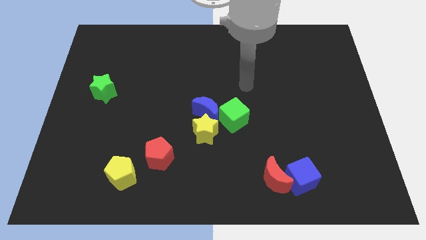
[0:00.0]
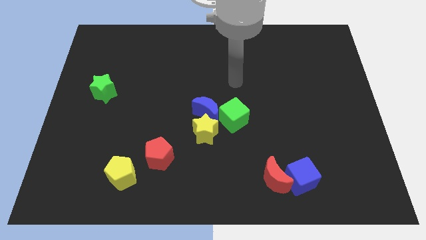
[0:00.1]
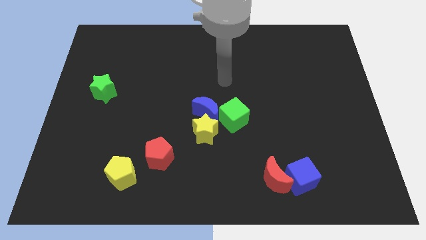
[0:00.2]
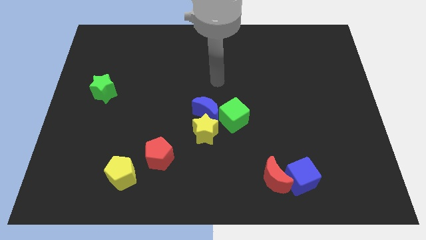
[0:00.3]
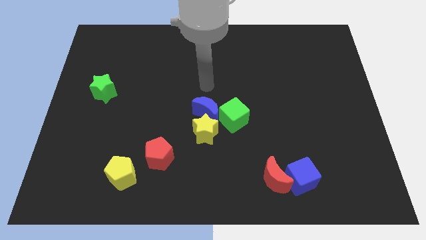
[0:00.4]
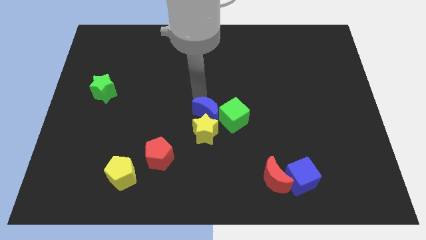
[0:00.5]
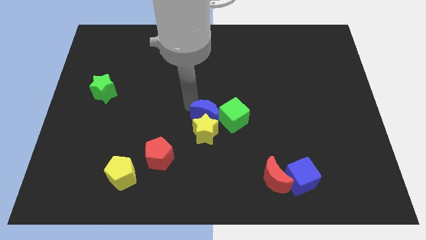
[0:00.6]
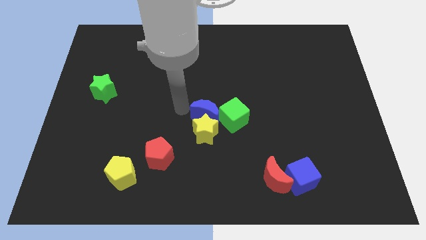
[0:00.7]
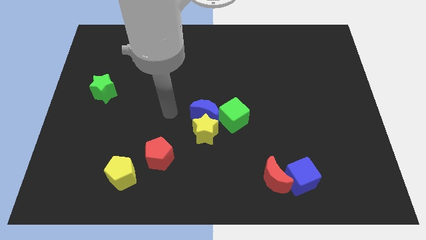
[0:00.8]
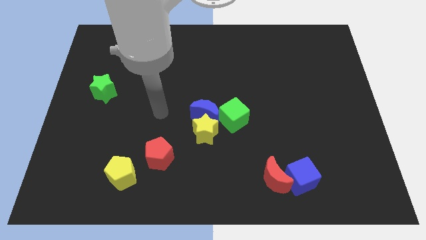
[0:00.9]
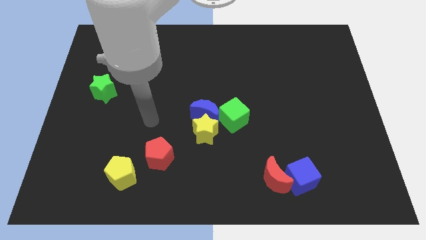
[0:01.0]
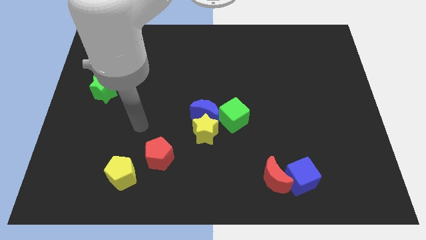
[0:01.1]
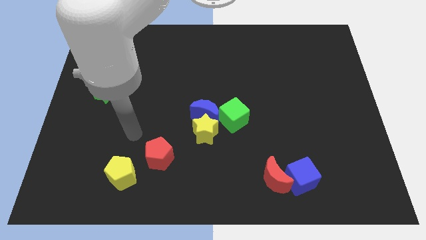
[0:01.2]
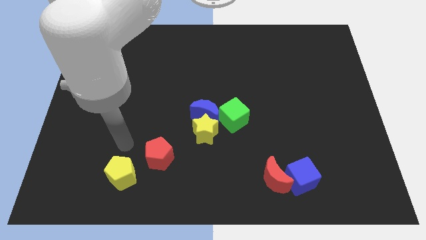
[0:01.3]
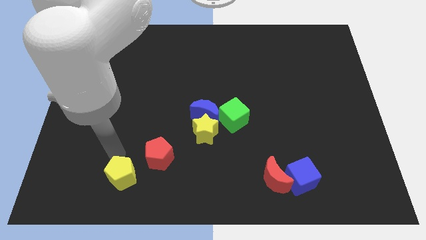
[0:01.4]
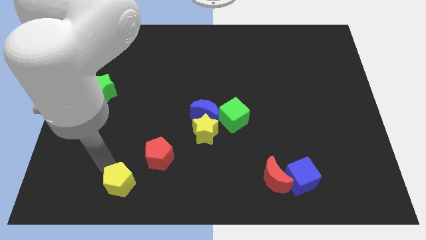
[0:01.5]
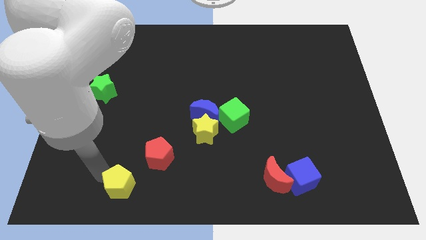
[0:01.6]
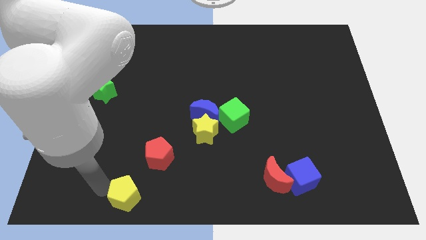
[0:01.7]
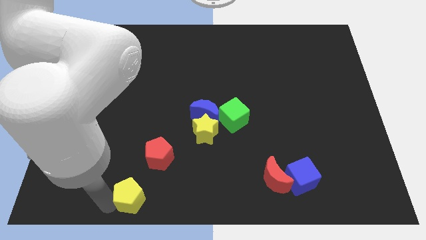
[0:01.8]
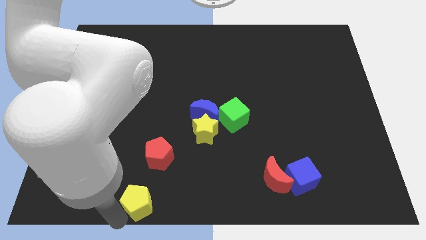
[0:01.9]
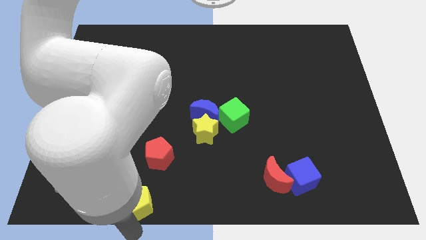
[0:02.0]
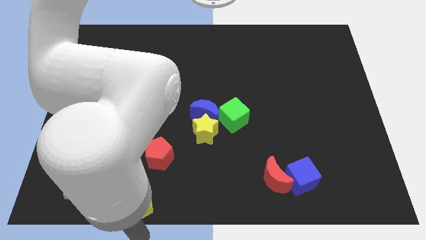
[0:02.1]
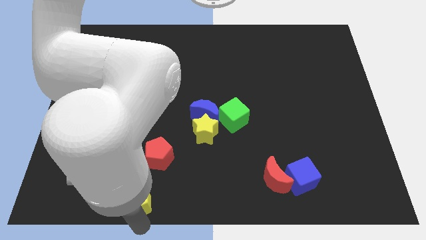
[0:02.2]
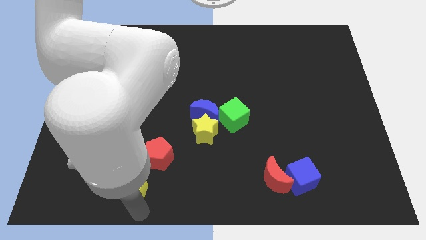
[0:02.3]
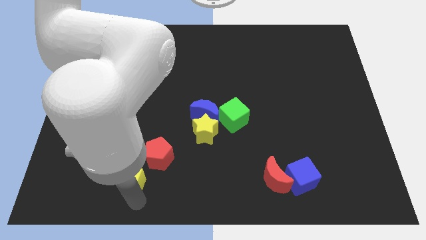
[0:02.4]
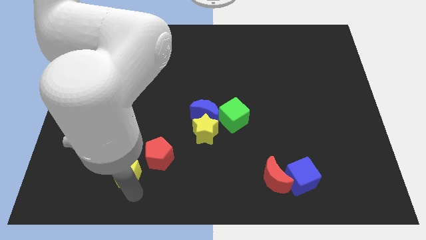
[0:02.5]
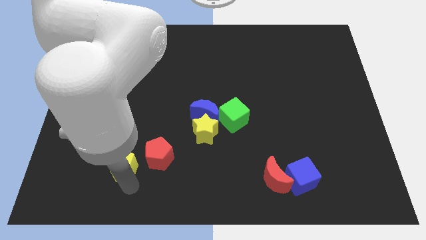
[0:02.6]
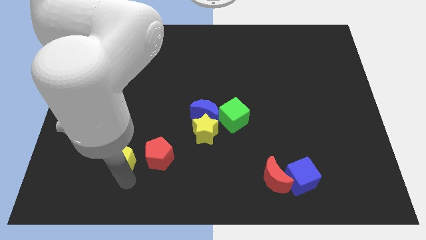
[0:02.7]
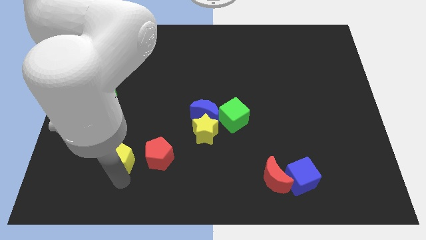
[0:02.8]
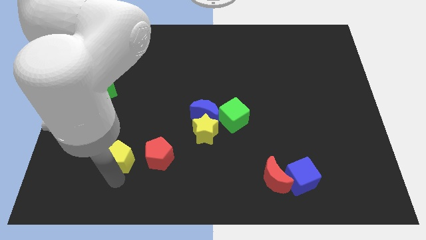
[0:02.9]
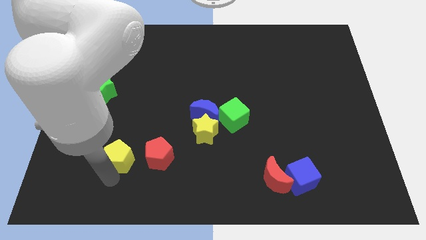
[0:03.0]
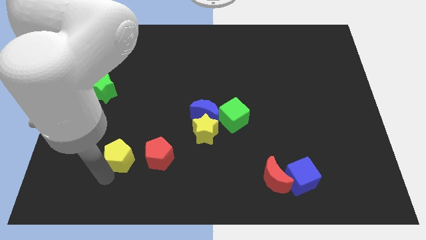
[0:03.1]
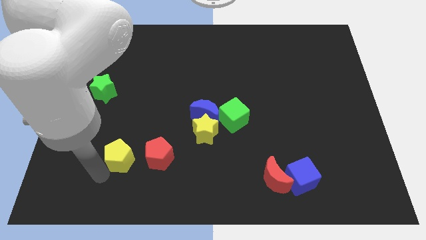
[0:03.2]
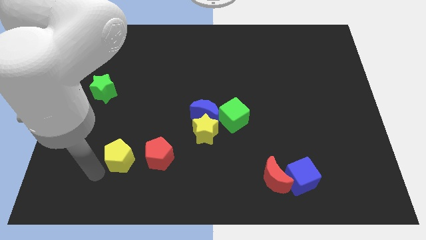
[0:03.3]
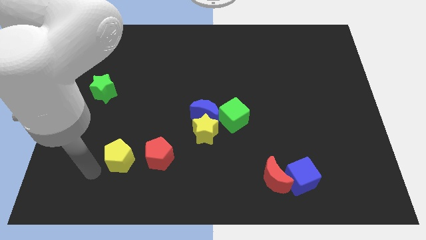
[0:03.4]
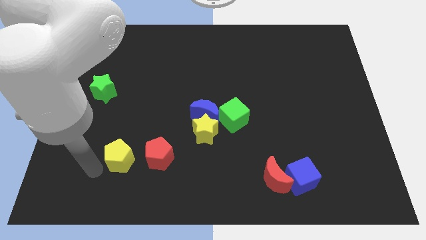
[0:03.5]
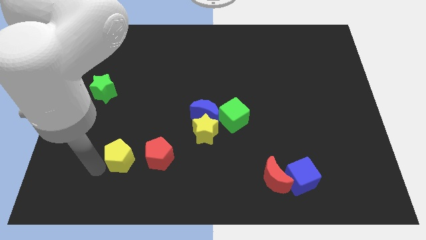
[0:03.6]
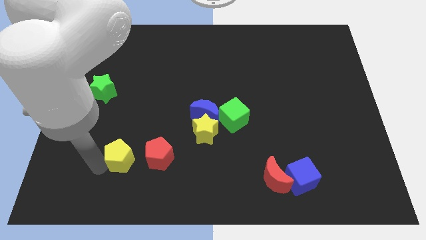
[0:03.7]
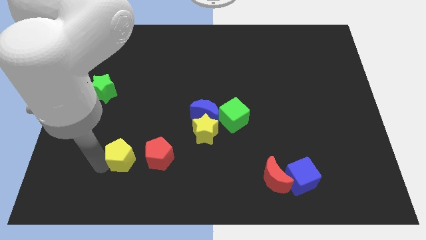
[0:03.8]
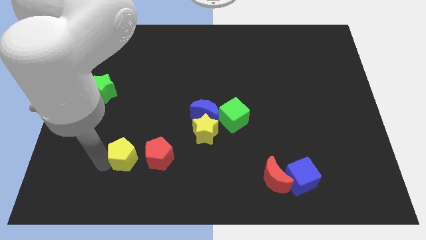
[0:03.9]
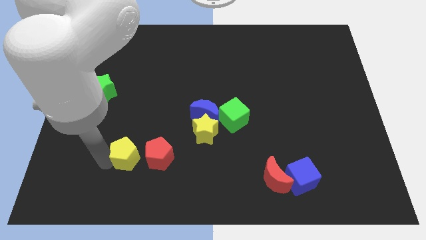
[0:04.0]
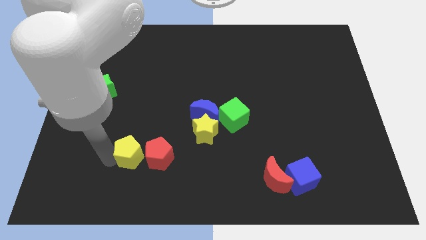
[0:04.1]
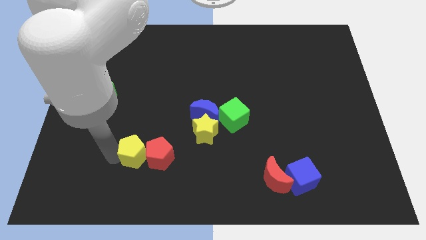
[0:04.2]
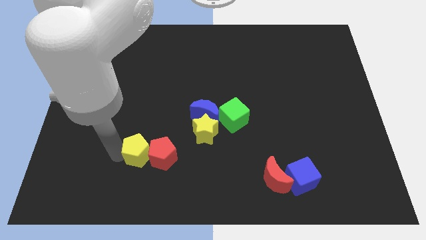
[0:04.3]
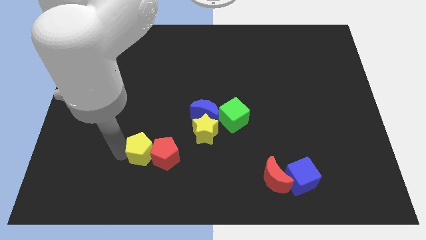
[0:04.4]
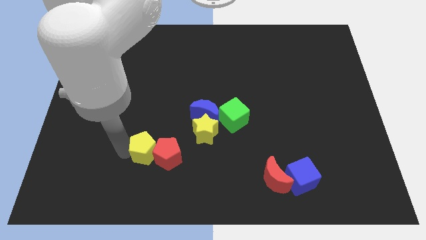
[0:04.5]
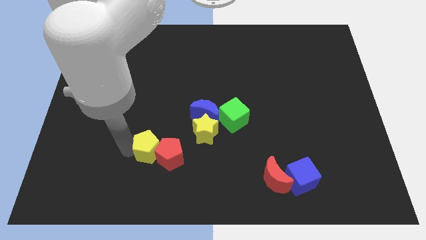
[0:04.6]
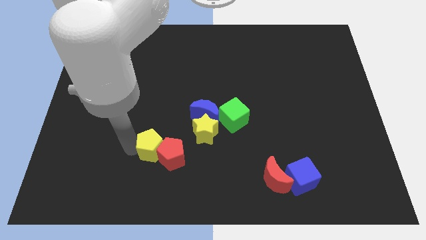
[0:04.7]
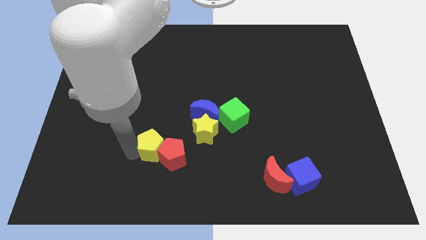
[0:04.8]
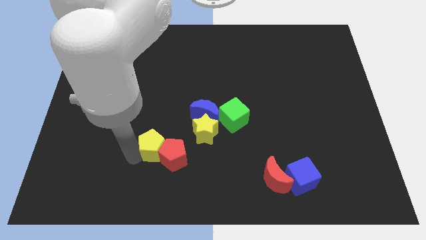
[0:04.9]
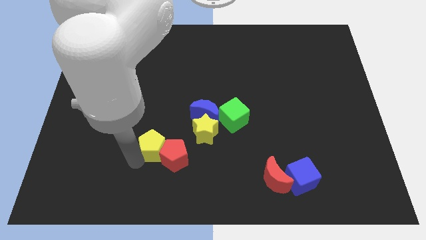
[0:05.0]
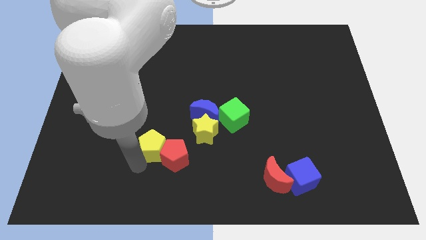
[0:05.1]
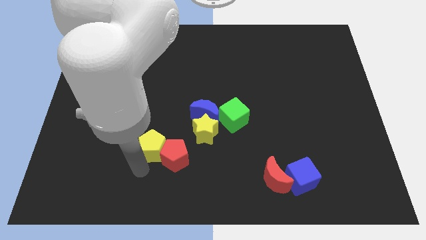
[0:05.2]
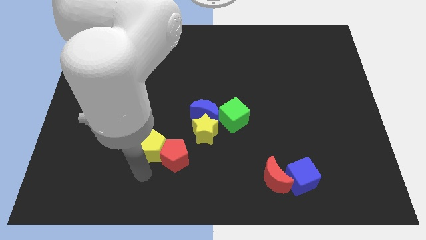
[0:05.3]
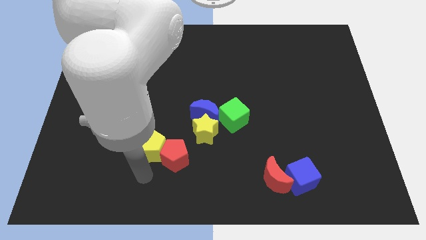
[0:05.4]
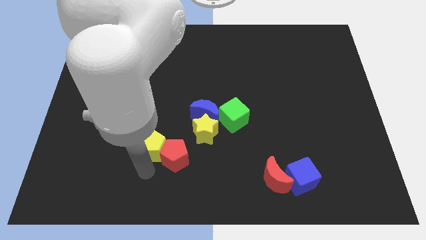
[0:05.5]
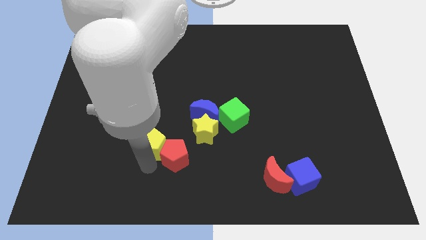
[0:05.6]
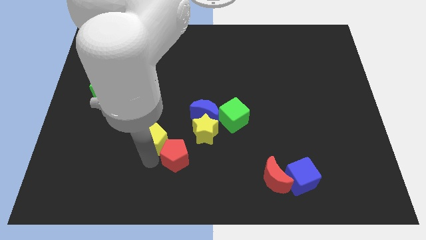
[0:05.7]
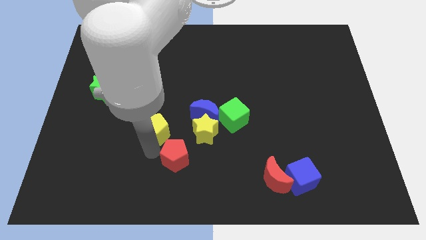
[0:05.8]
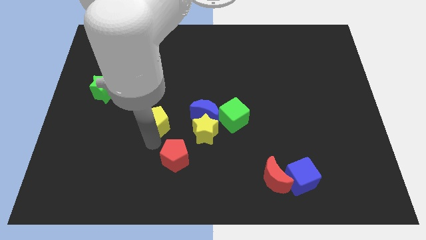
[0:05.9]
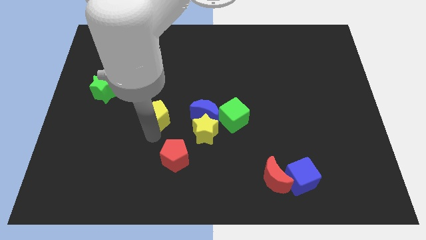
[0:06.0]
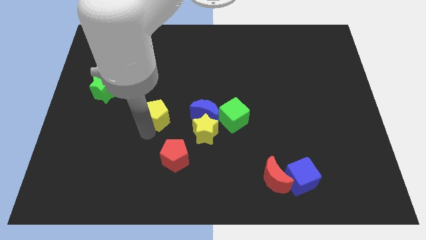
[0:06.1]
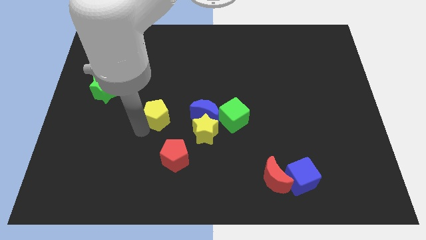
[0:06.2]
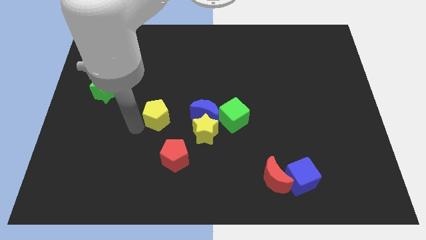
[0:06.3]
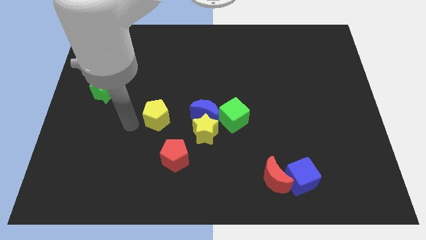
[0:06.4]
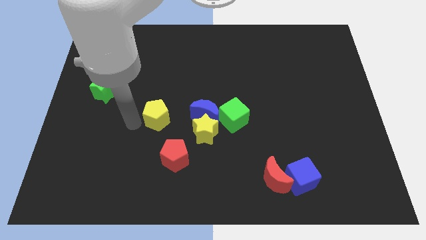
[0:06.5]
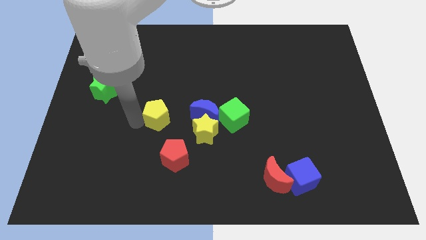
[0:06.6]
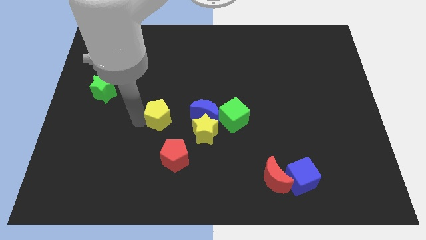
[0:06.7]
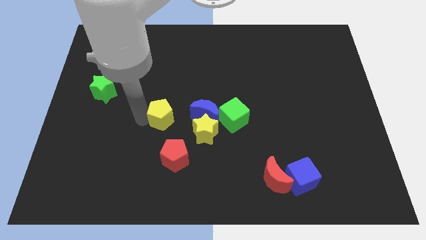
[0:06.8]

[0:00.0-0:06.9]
slide the yellow pentagon to the top left side of the yellow star
